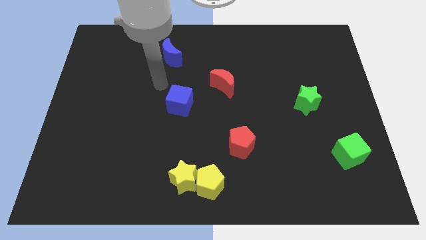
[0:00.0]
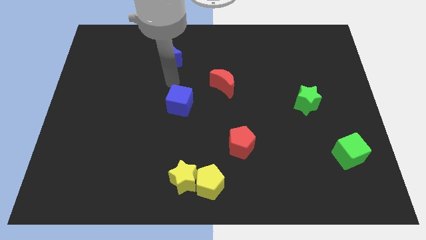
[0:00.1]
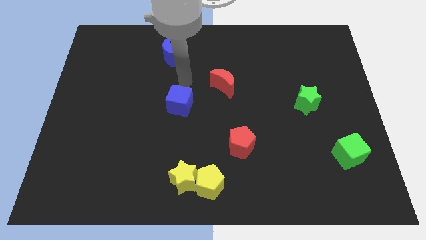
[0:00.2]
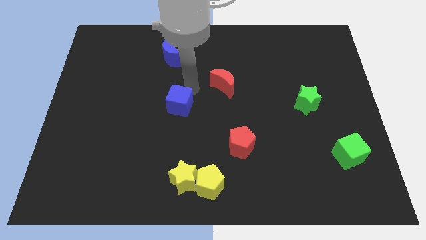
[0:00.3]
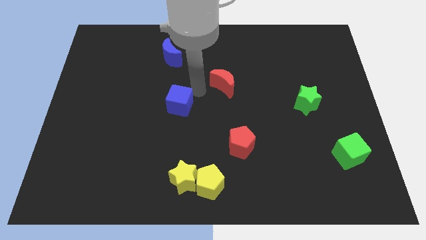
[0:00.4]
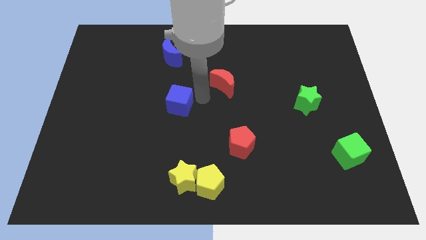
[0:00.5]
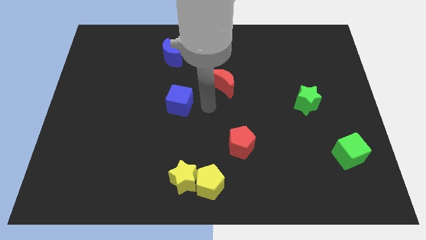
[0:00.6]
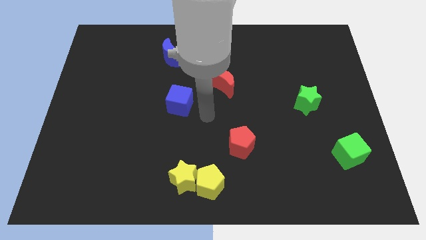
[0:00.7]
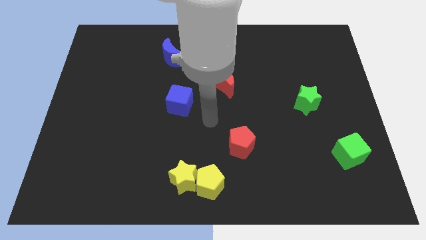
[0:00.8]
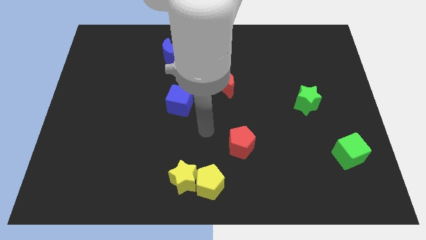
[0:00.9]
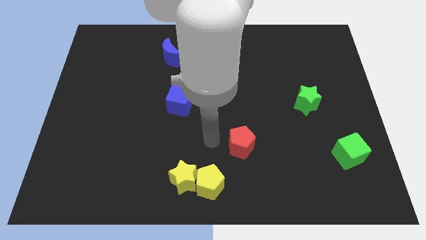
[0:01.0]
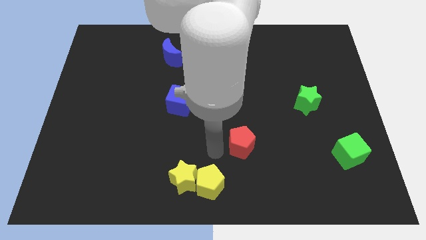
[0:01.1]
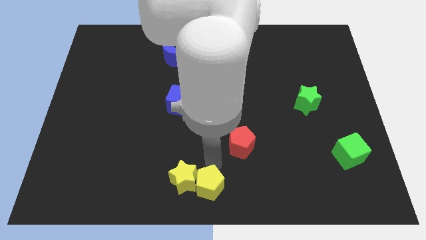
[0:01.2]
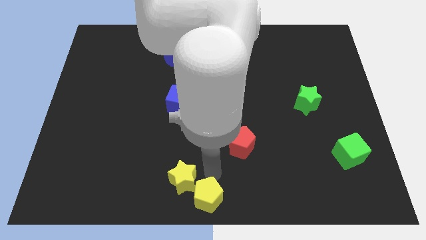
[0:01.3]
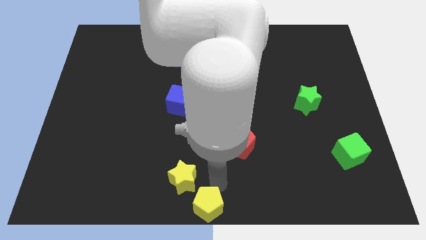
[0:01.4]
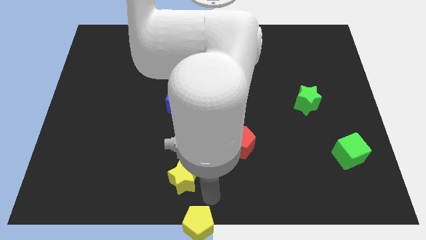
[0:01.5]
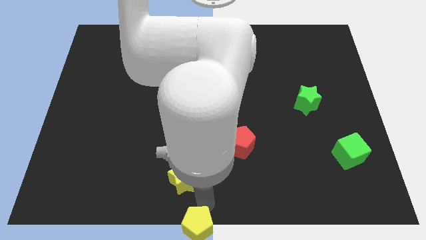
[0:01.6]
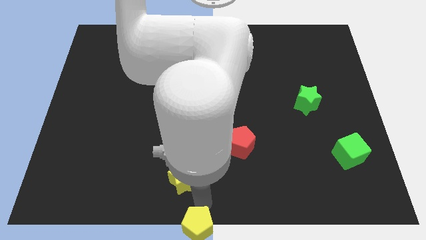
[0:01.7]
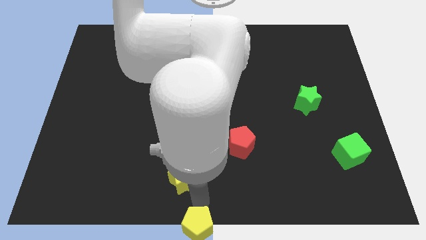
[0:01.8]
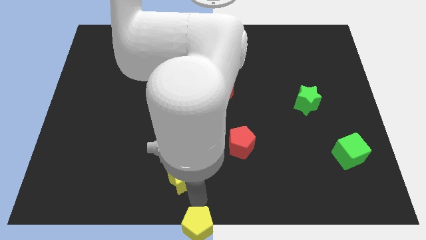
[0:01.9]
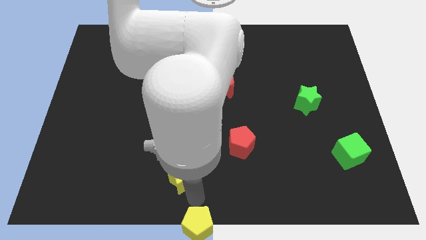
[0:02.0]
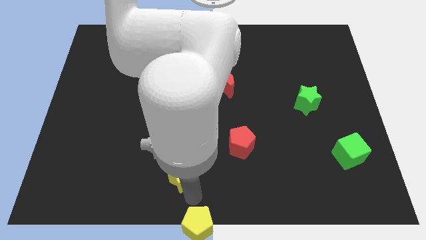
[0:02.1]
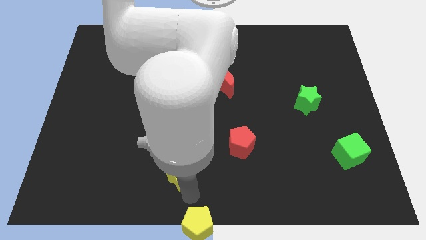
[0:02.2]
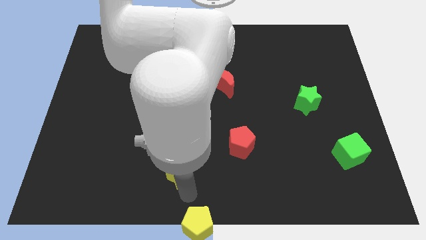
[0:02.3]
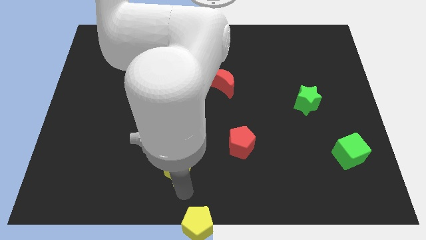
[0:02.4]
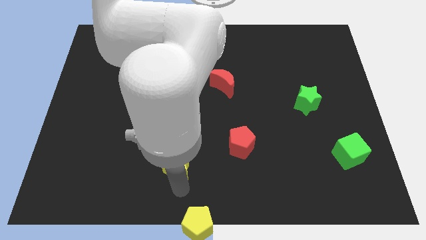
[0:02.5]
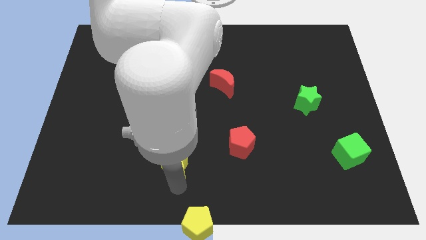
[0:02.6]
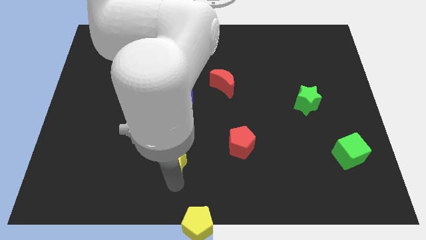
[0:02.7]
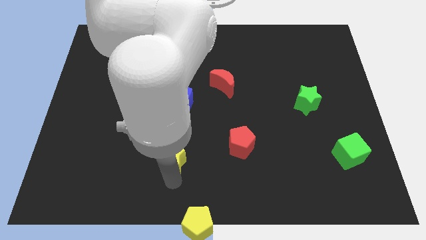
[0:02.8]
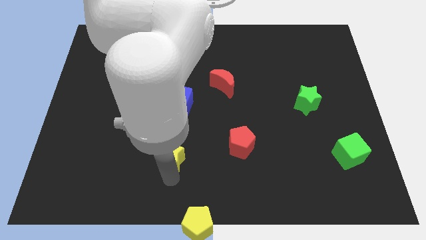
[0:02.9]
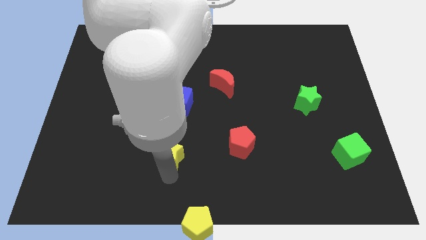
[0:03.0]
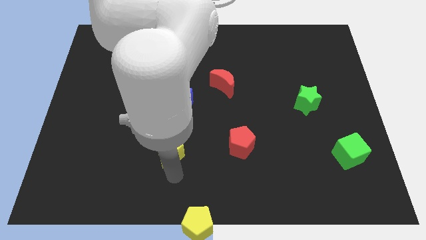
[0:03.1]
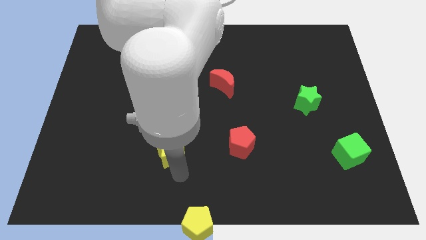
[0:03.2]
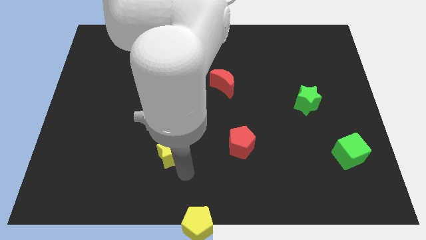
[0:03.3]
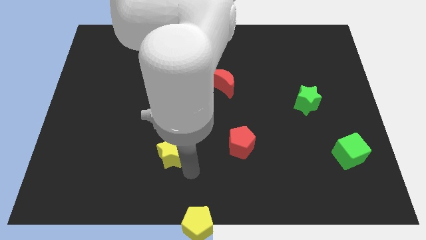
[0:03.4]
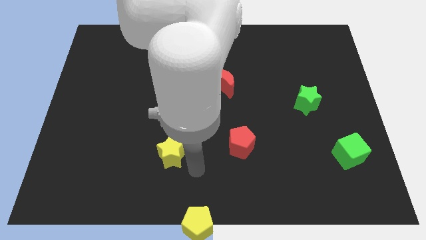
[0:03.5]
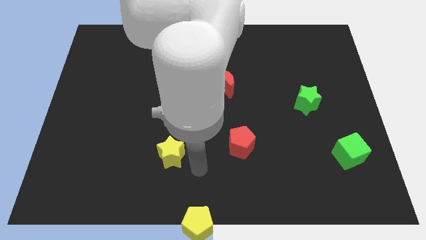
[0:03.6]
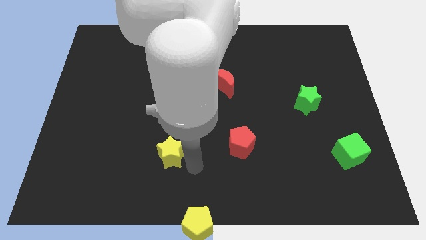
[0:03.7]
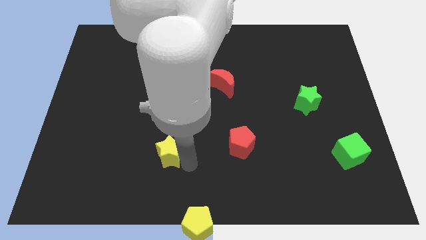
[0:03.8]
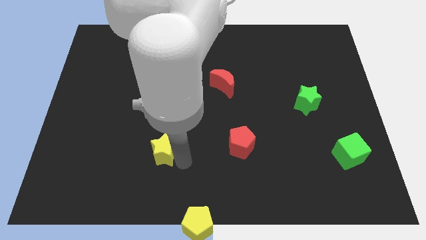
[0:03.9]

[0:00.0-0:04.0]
push the yellow star a little bit up and then left

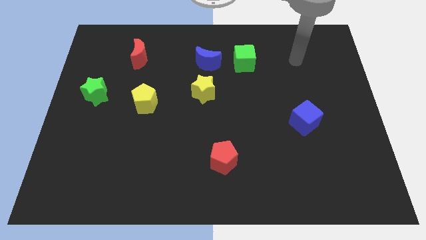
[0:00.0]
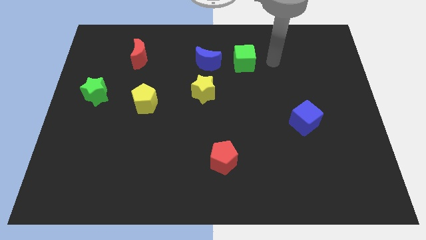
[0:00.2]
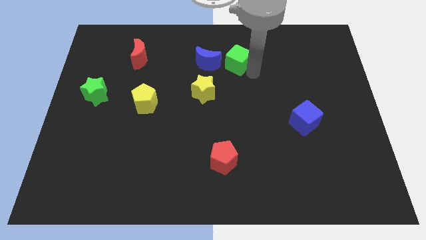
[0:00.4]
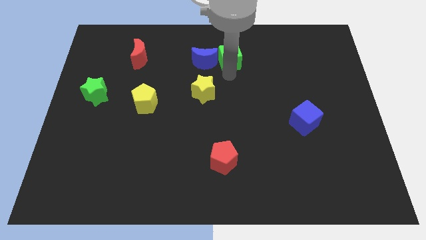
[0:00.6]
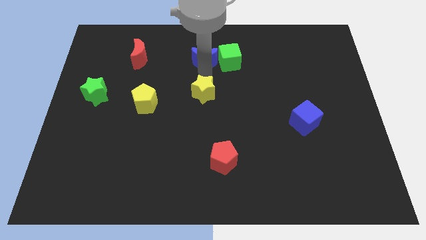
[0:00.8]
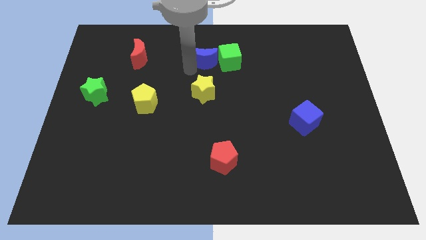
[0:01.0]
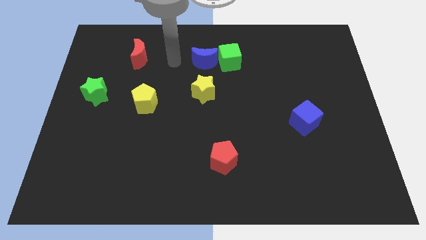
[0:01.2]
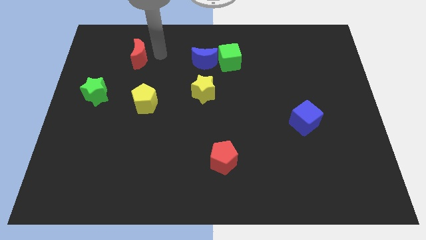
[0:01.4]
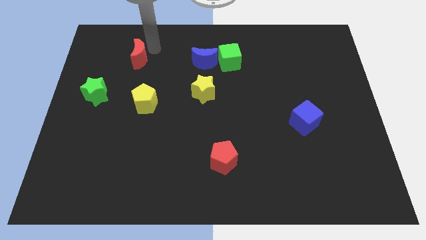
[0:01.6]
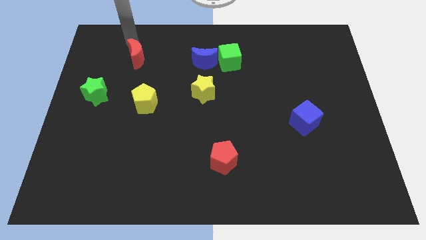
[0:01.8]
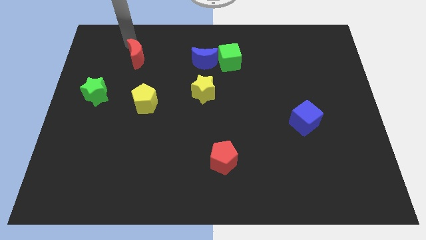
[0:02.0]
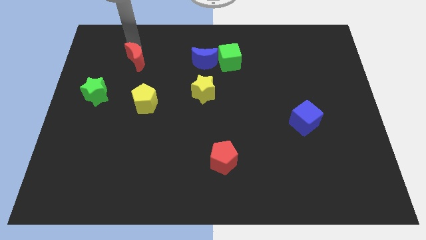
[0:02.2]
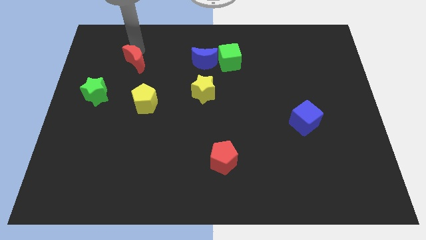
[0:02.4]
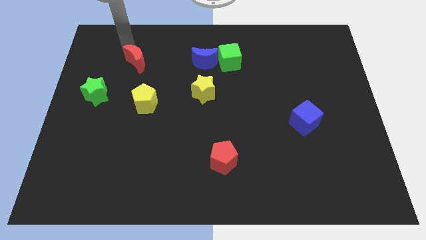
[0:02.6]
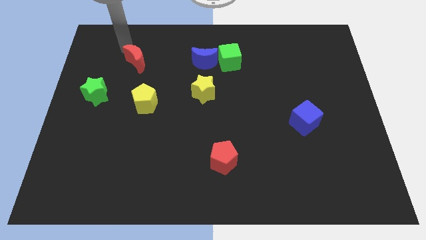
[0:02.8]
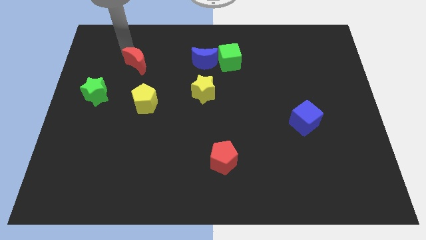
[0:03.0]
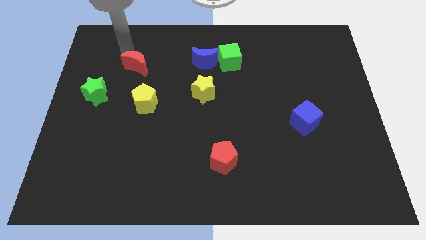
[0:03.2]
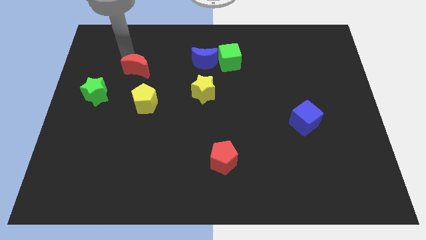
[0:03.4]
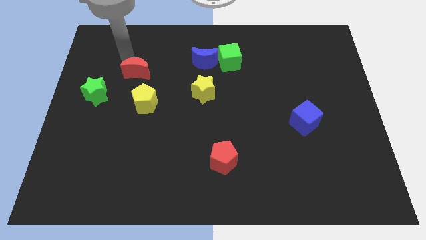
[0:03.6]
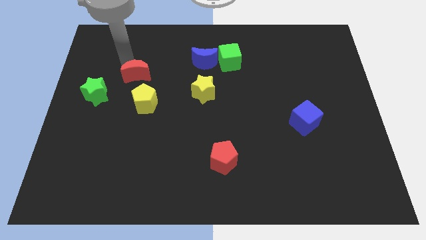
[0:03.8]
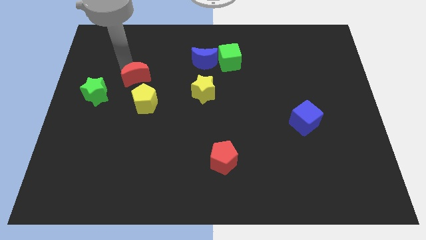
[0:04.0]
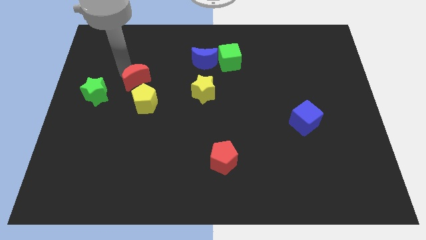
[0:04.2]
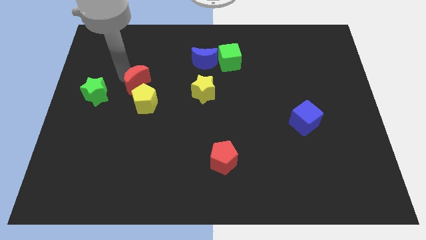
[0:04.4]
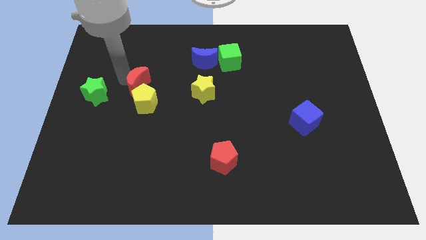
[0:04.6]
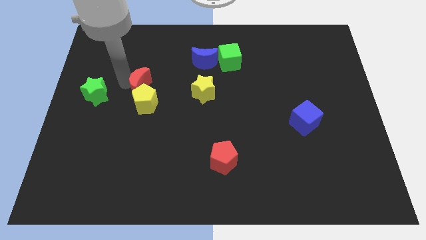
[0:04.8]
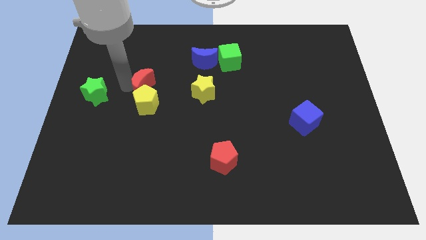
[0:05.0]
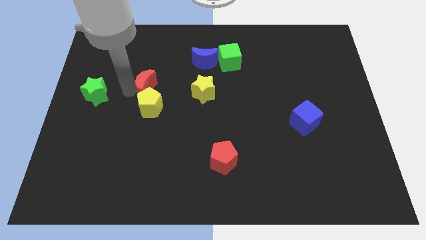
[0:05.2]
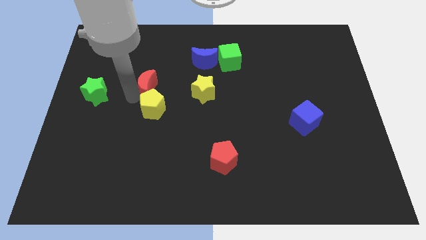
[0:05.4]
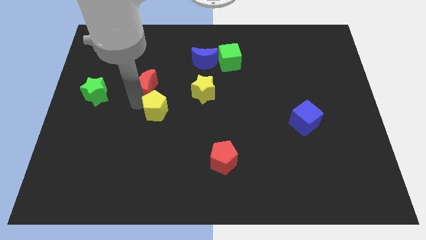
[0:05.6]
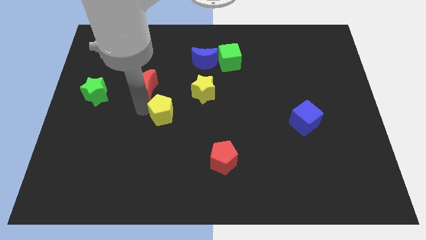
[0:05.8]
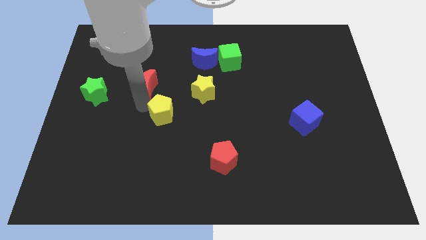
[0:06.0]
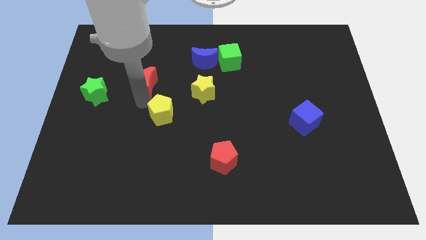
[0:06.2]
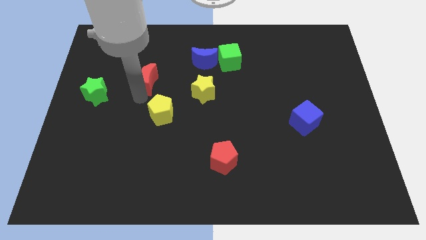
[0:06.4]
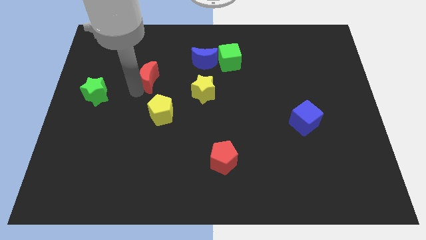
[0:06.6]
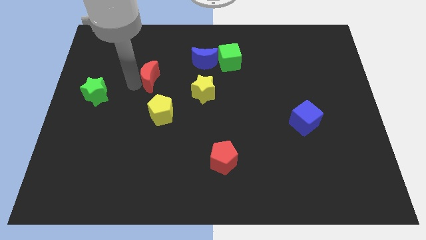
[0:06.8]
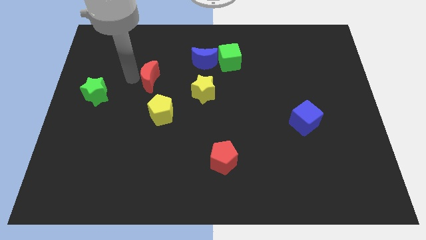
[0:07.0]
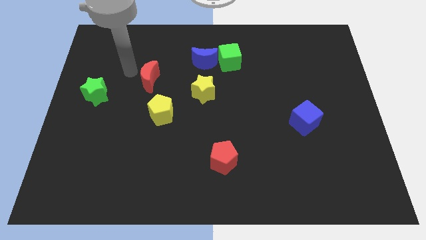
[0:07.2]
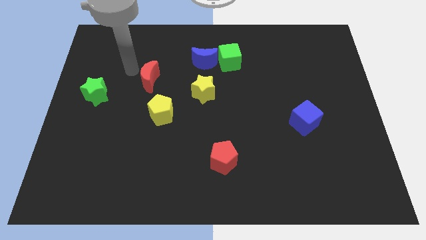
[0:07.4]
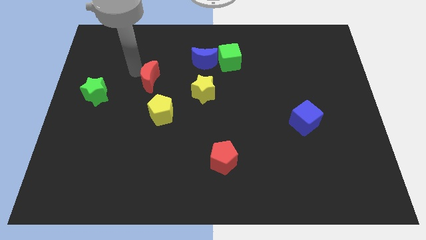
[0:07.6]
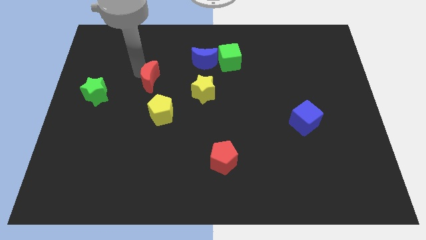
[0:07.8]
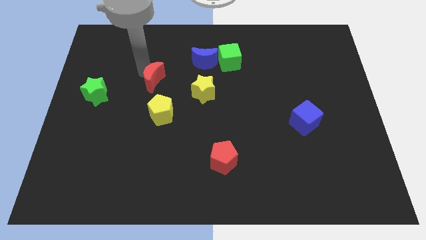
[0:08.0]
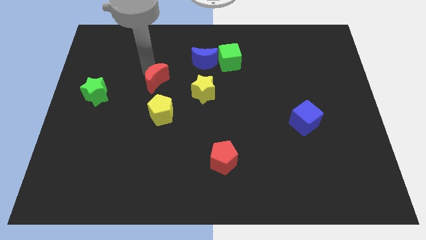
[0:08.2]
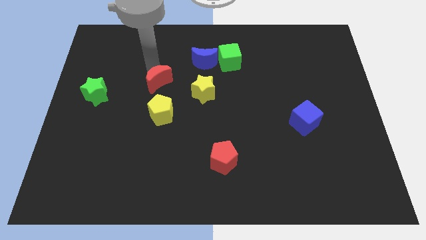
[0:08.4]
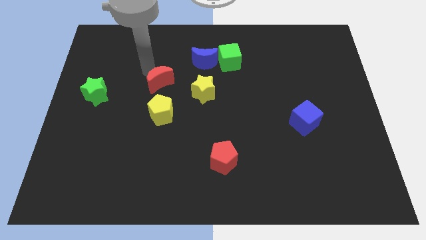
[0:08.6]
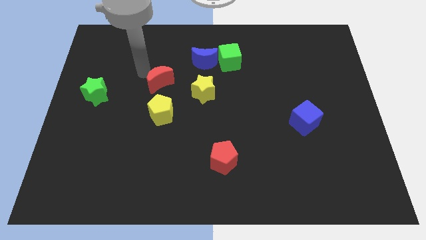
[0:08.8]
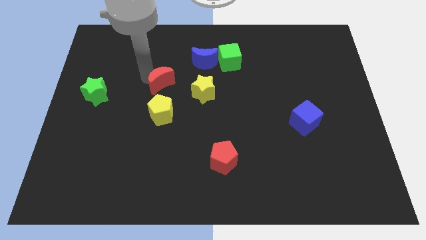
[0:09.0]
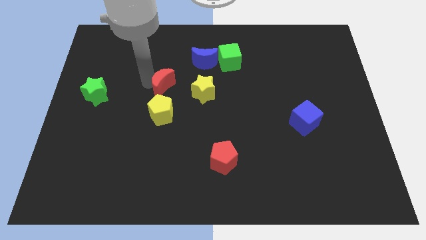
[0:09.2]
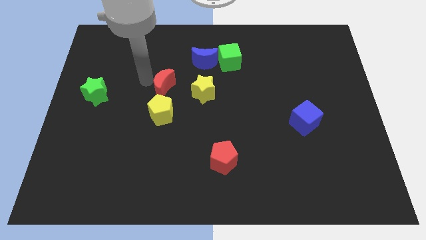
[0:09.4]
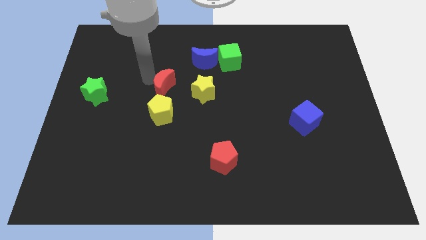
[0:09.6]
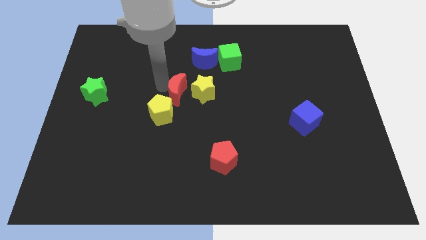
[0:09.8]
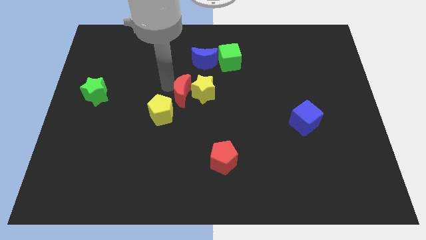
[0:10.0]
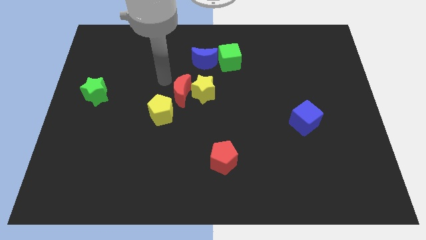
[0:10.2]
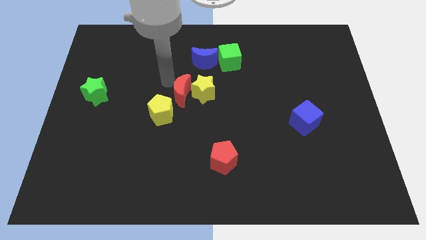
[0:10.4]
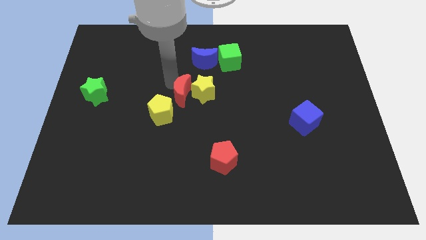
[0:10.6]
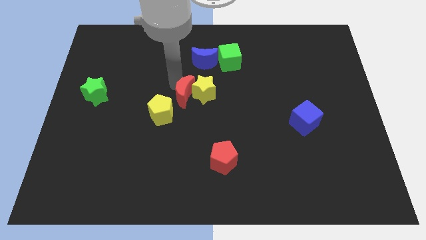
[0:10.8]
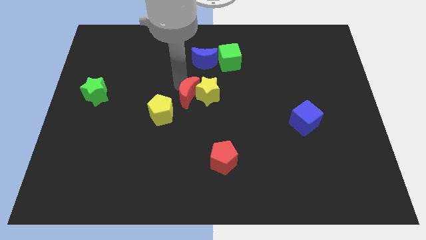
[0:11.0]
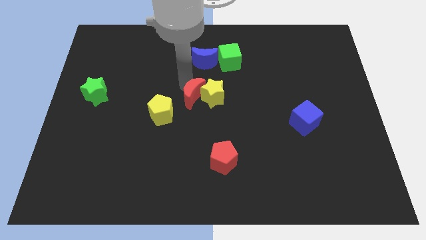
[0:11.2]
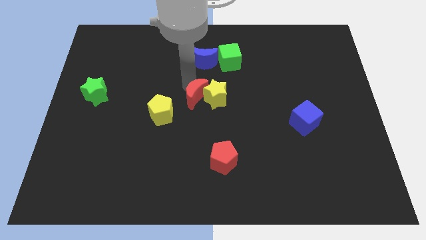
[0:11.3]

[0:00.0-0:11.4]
move the red moon down and to the right diagonally
